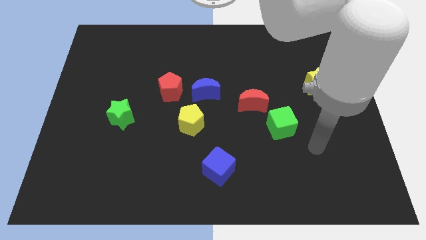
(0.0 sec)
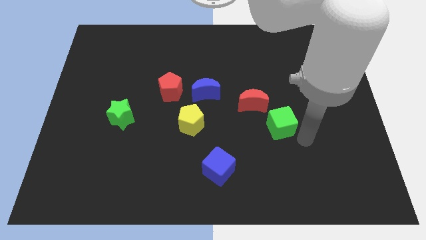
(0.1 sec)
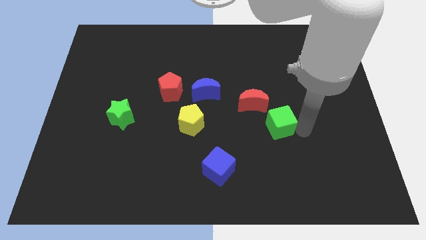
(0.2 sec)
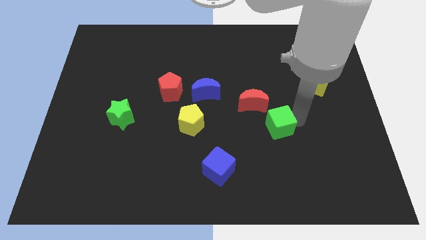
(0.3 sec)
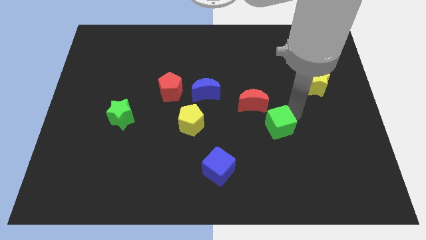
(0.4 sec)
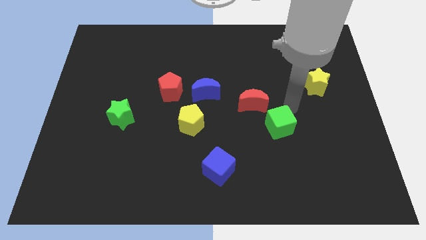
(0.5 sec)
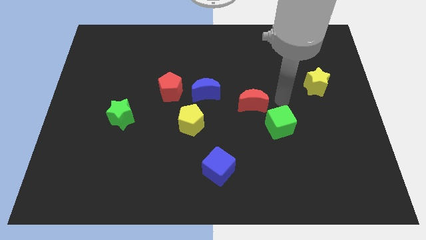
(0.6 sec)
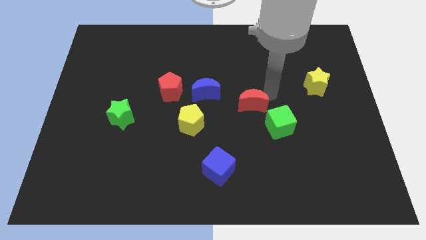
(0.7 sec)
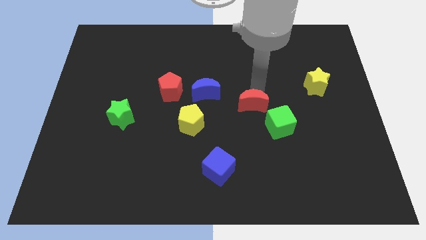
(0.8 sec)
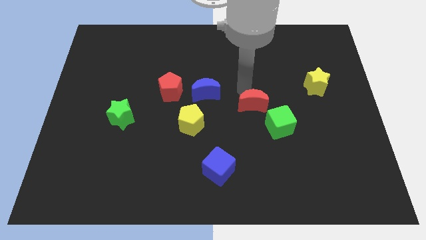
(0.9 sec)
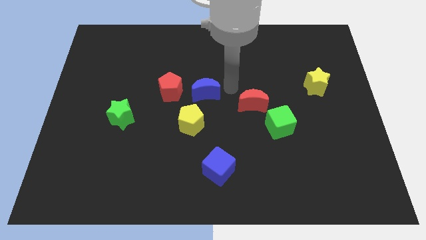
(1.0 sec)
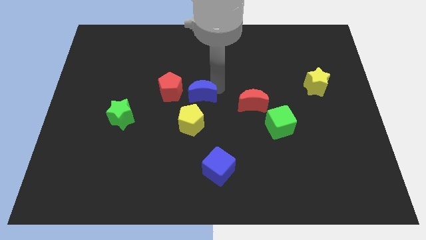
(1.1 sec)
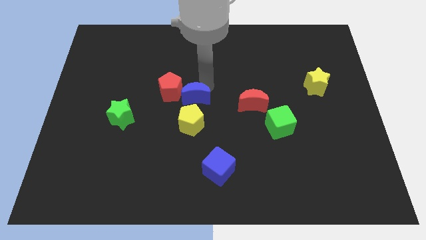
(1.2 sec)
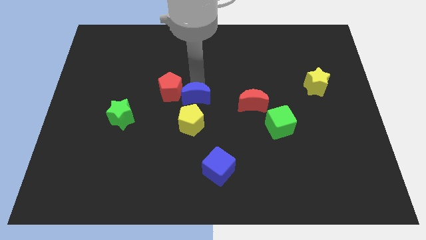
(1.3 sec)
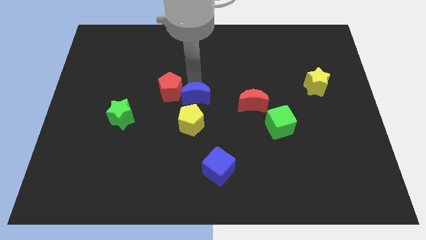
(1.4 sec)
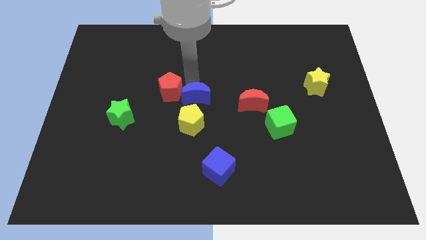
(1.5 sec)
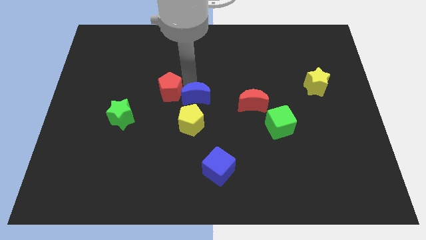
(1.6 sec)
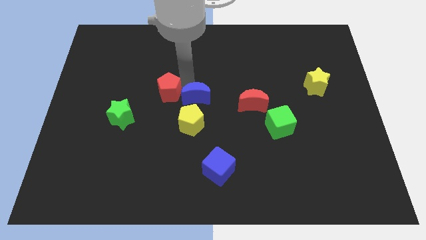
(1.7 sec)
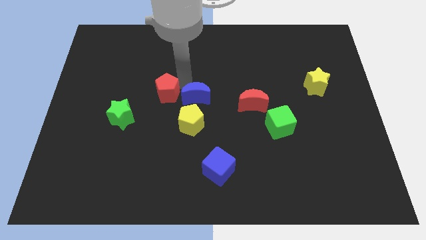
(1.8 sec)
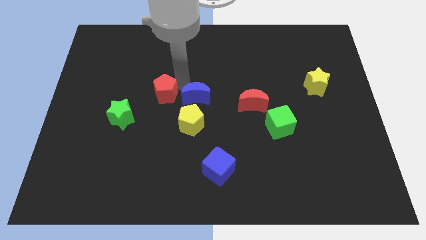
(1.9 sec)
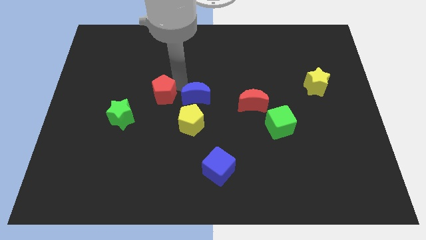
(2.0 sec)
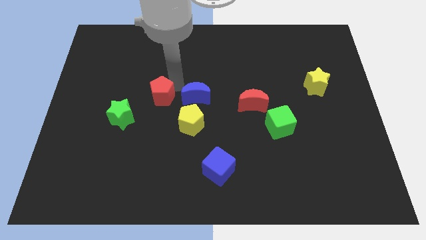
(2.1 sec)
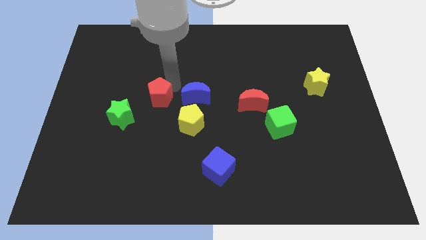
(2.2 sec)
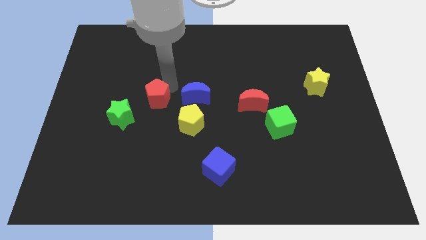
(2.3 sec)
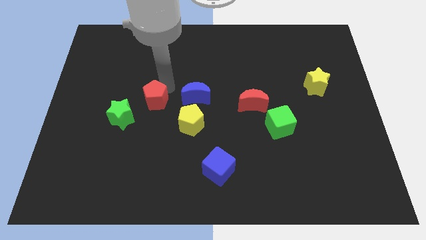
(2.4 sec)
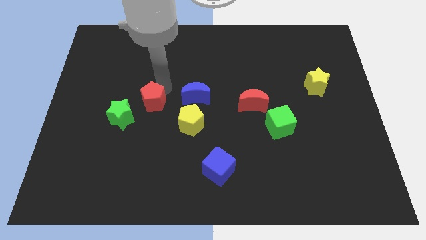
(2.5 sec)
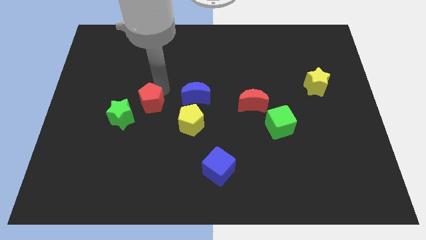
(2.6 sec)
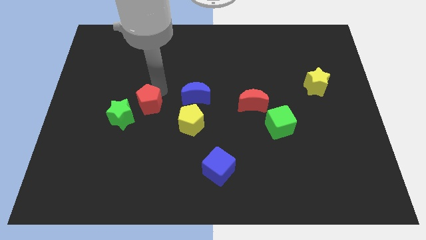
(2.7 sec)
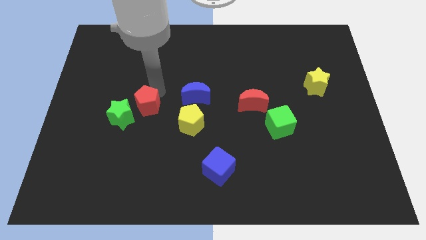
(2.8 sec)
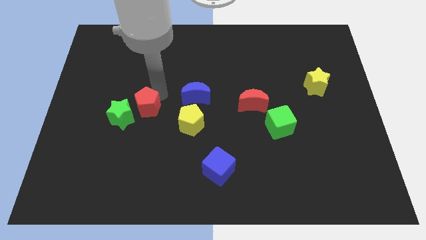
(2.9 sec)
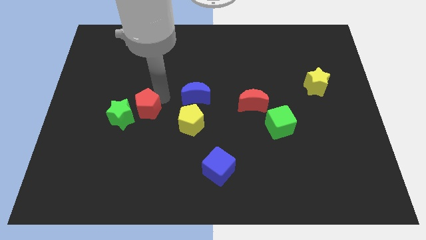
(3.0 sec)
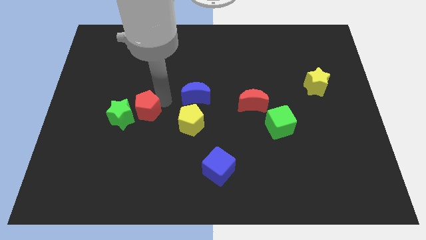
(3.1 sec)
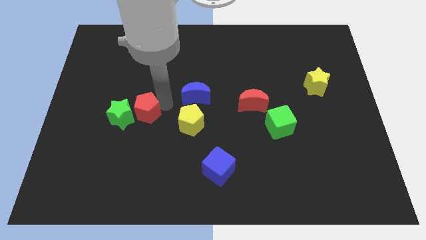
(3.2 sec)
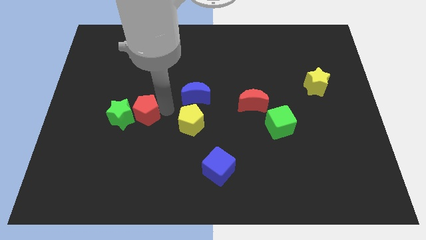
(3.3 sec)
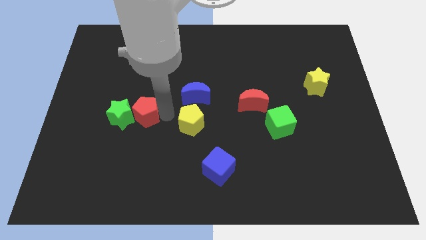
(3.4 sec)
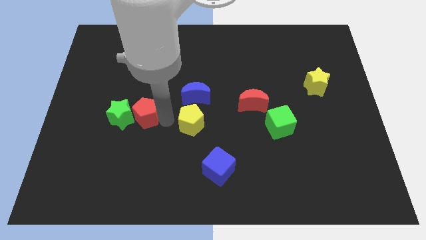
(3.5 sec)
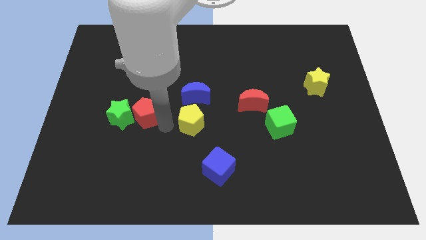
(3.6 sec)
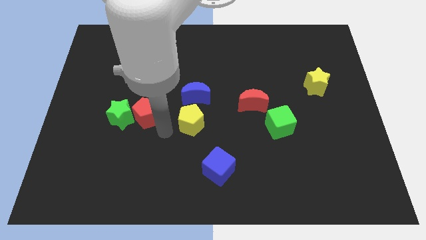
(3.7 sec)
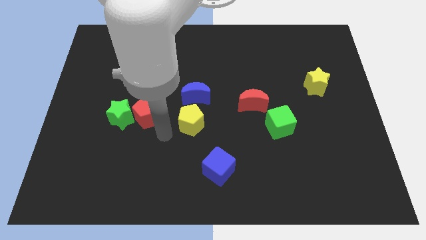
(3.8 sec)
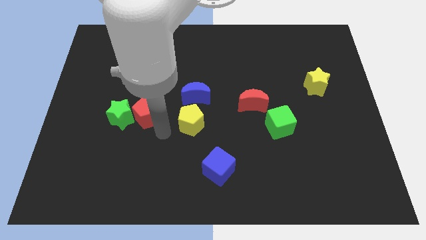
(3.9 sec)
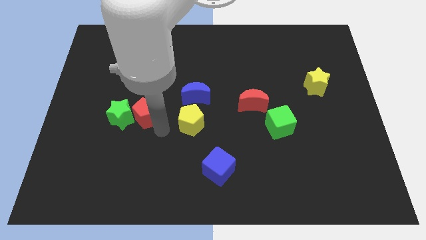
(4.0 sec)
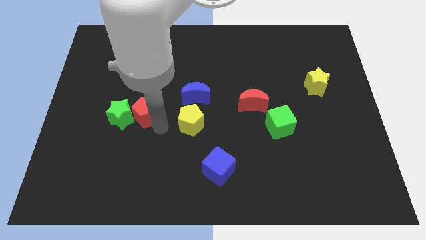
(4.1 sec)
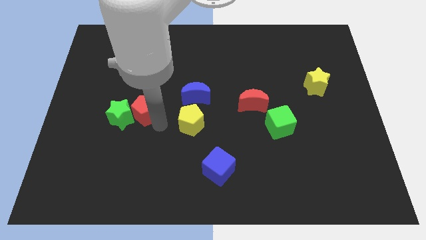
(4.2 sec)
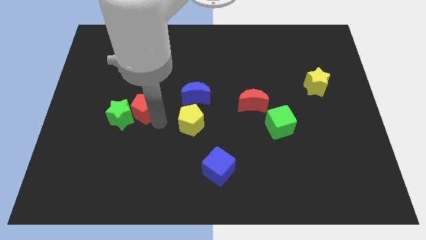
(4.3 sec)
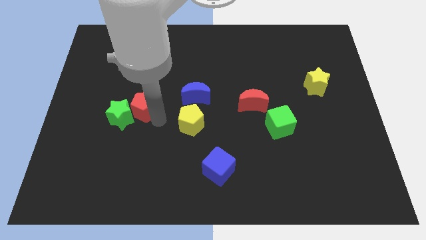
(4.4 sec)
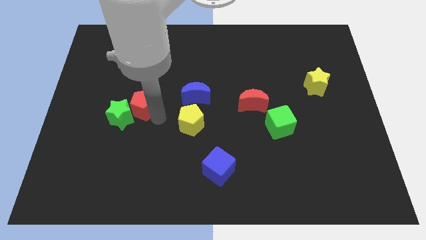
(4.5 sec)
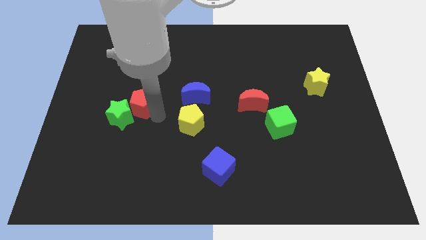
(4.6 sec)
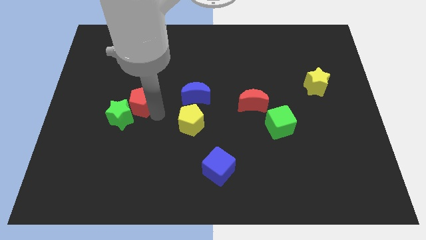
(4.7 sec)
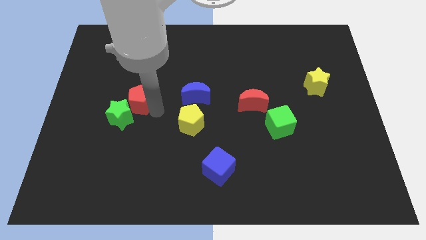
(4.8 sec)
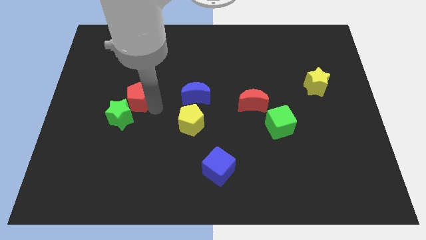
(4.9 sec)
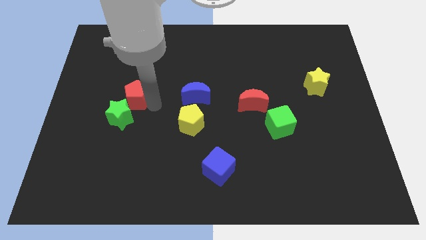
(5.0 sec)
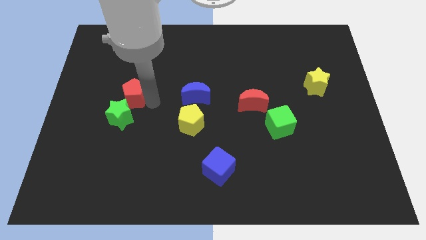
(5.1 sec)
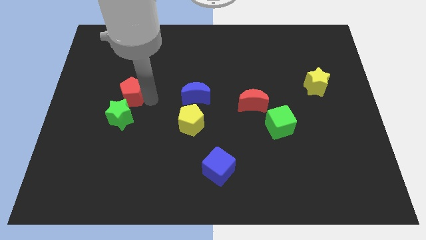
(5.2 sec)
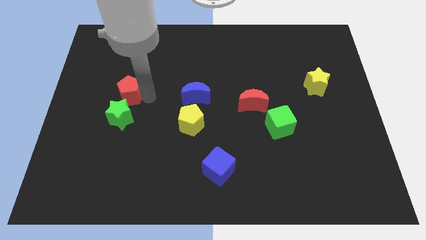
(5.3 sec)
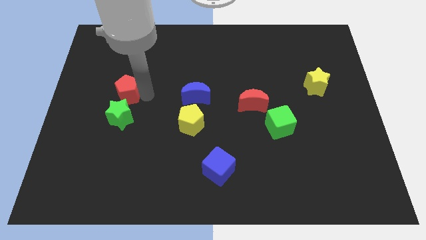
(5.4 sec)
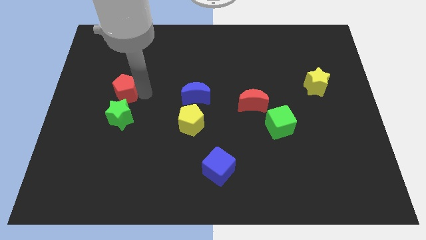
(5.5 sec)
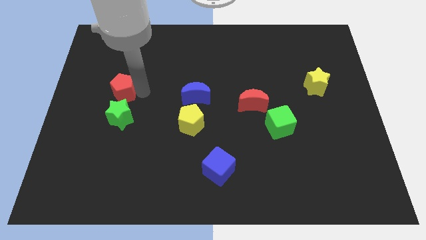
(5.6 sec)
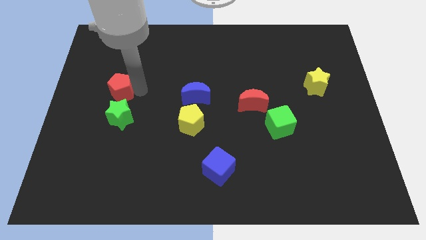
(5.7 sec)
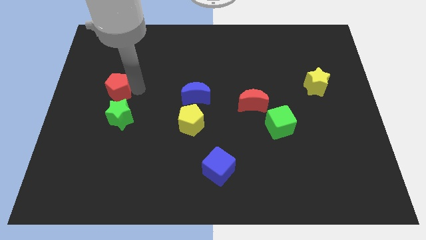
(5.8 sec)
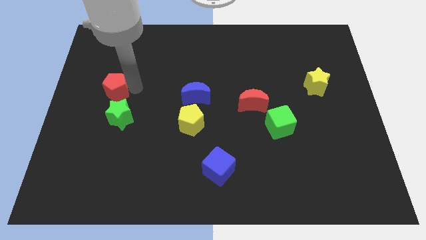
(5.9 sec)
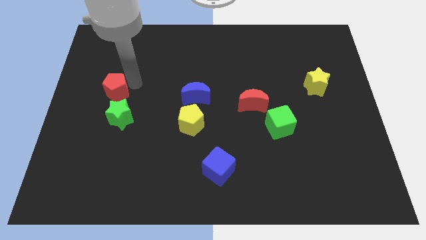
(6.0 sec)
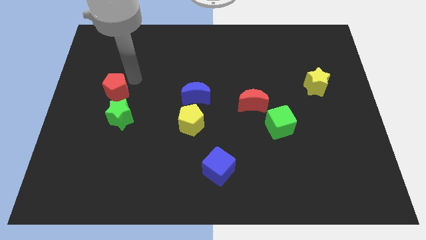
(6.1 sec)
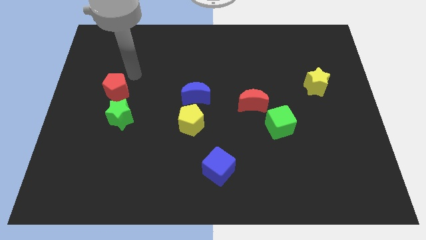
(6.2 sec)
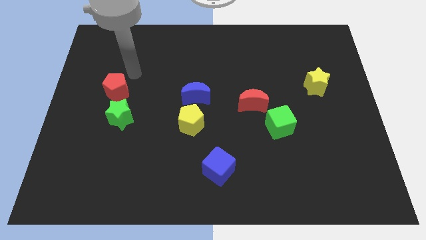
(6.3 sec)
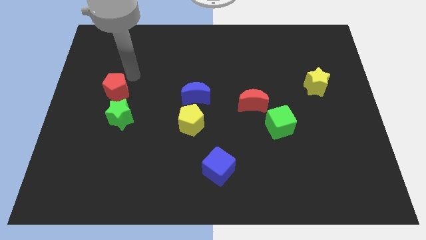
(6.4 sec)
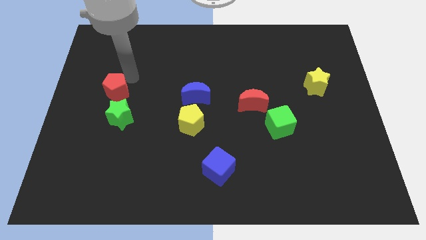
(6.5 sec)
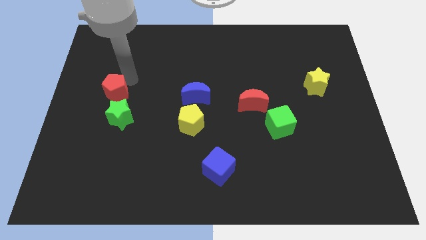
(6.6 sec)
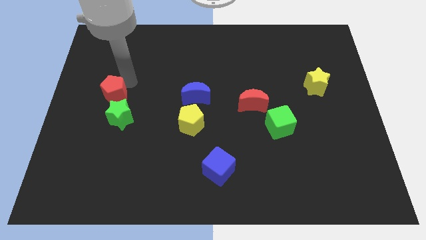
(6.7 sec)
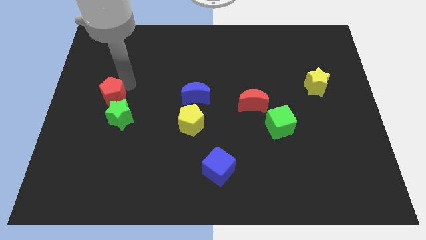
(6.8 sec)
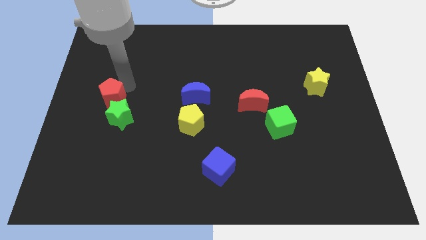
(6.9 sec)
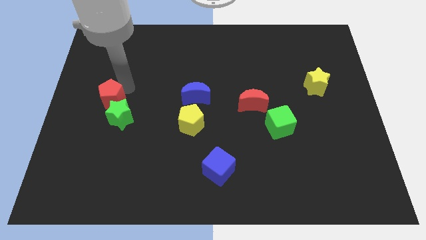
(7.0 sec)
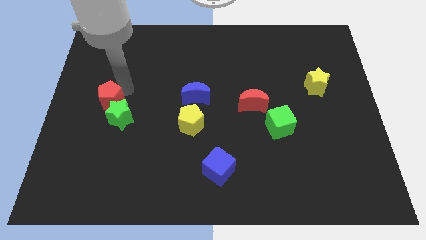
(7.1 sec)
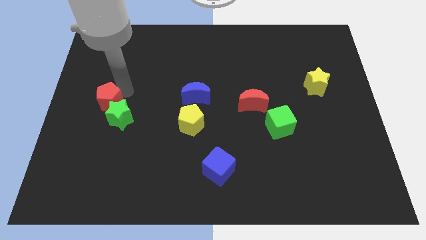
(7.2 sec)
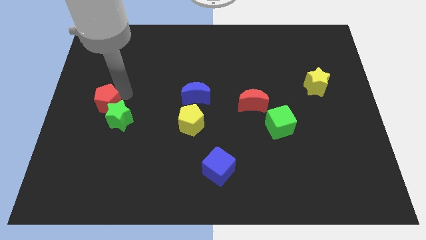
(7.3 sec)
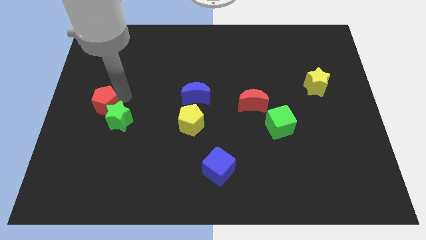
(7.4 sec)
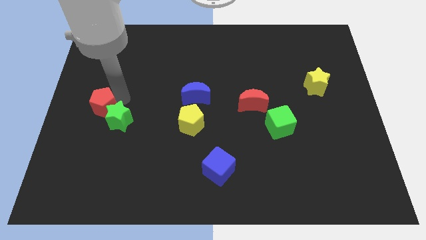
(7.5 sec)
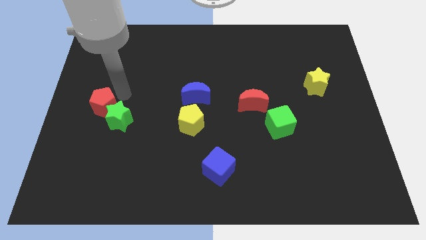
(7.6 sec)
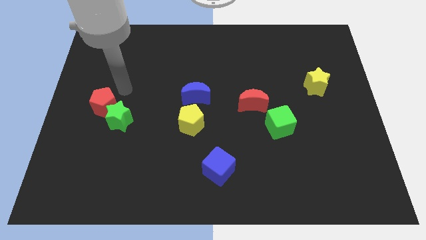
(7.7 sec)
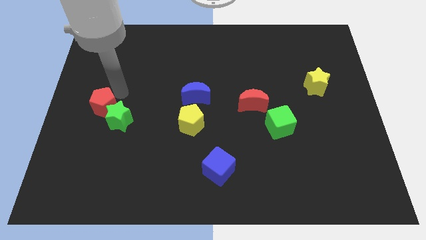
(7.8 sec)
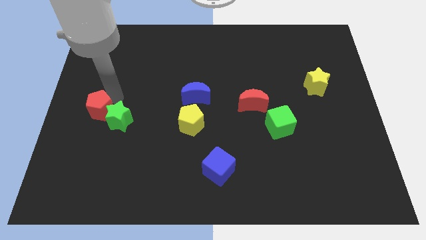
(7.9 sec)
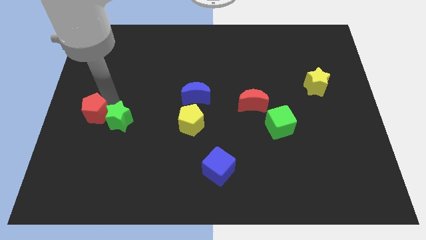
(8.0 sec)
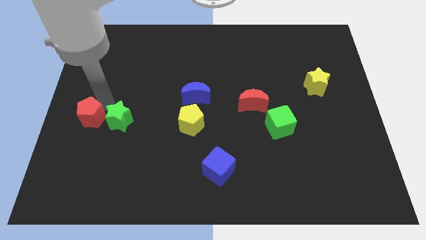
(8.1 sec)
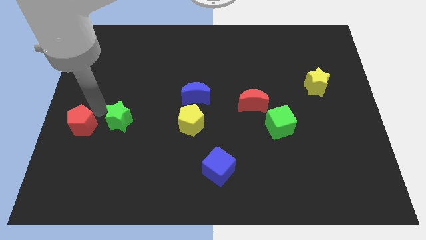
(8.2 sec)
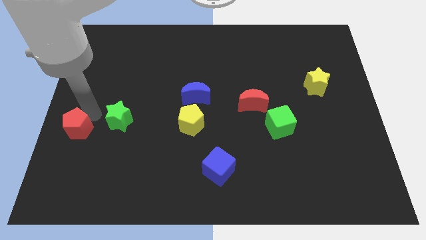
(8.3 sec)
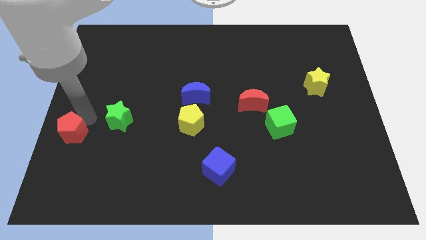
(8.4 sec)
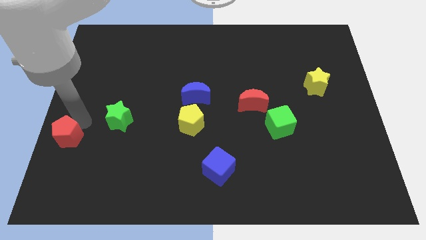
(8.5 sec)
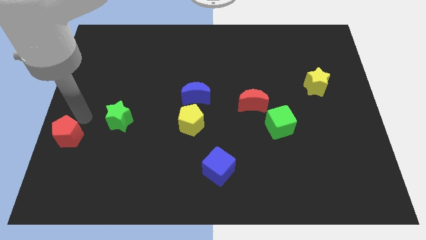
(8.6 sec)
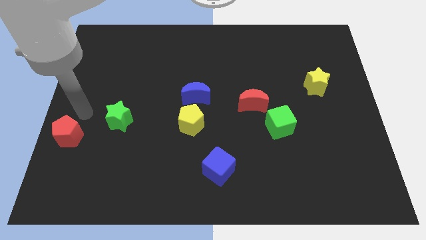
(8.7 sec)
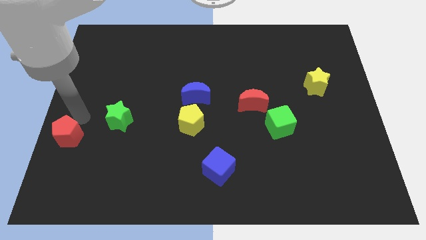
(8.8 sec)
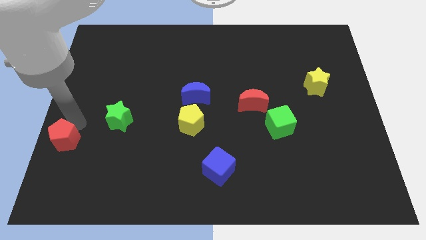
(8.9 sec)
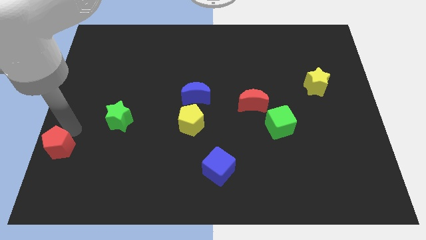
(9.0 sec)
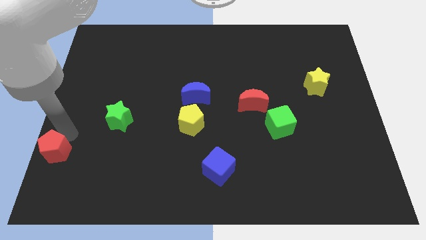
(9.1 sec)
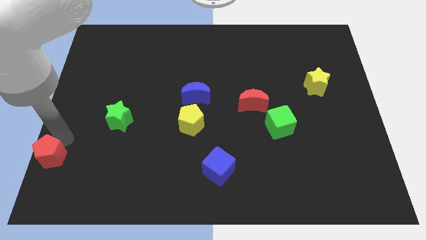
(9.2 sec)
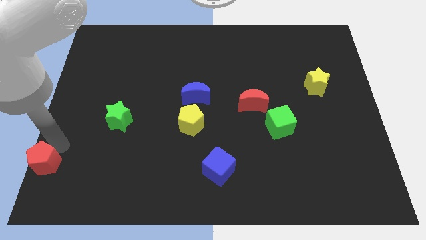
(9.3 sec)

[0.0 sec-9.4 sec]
put the red pentagon to the lower left corner
